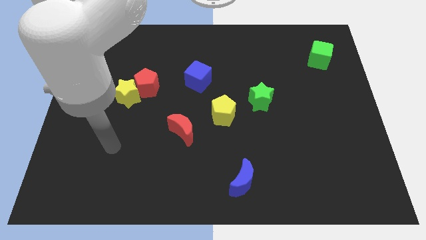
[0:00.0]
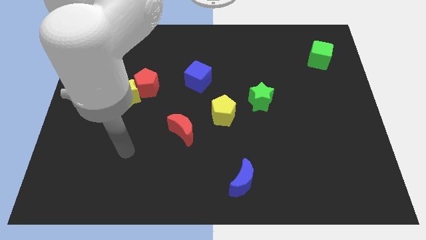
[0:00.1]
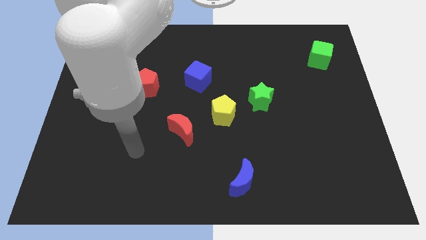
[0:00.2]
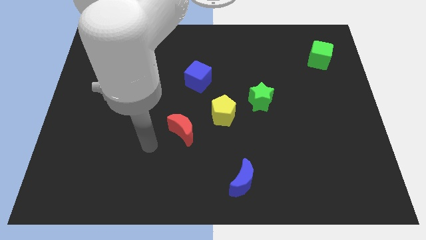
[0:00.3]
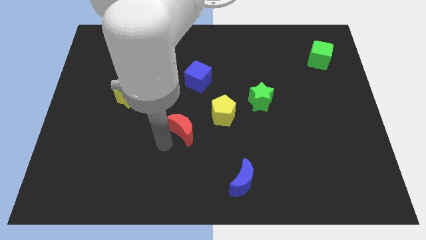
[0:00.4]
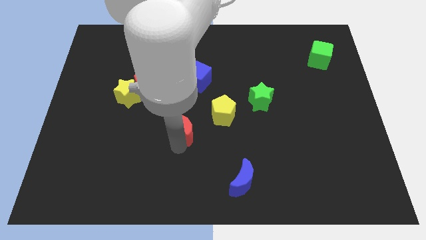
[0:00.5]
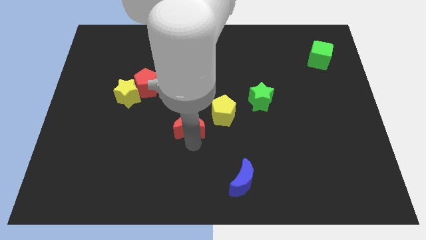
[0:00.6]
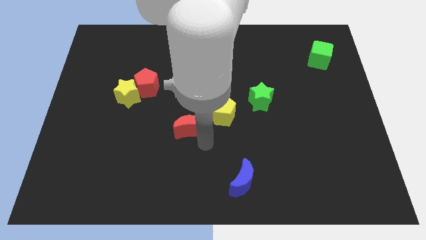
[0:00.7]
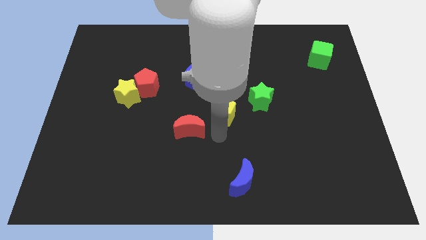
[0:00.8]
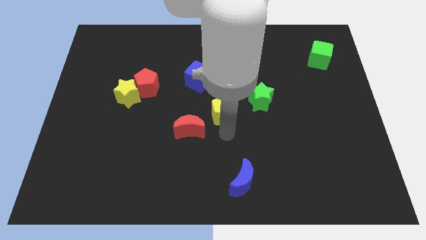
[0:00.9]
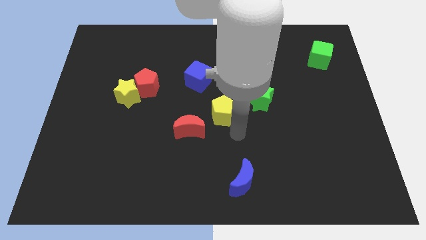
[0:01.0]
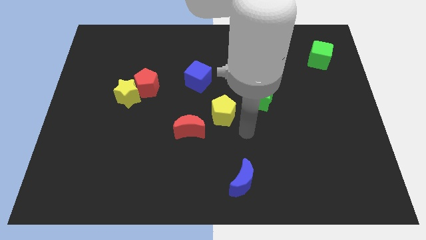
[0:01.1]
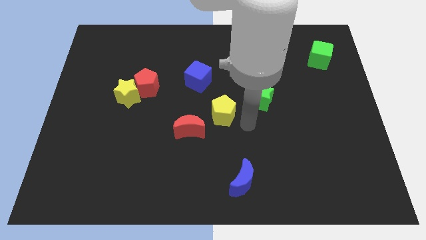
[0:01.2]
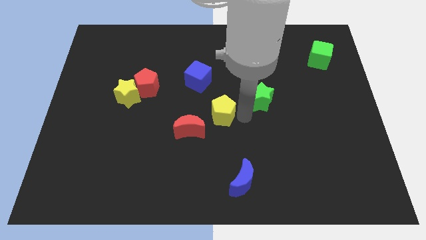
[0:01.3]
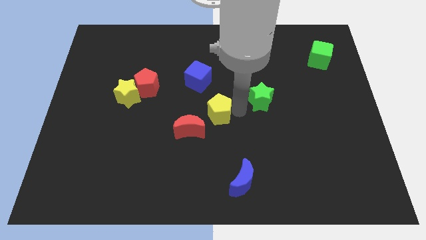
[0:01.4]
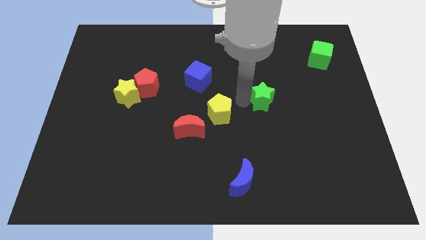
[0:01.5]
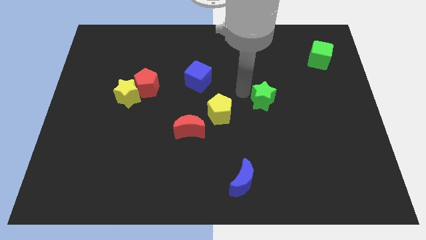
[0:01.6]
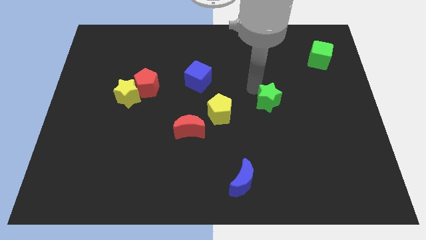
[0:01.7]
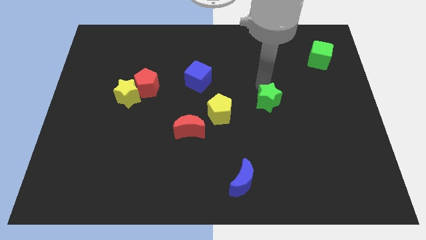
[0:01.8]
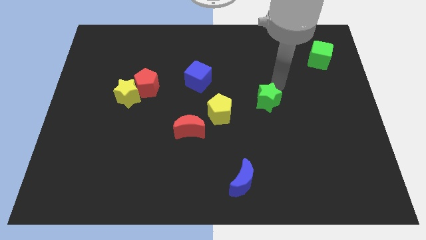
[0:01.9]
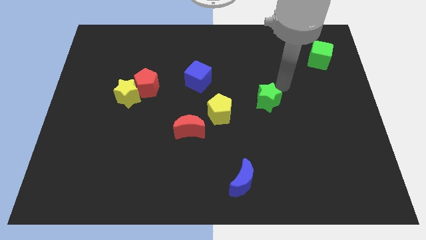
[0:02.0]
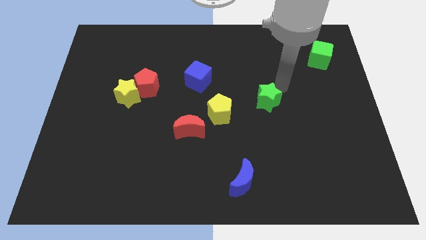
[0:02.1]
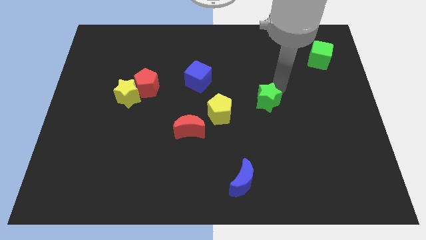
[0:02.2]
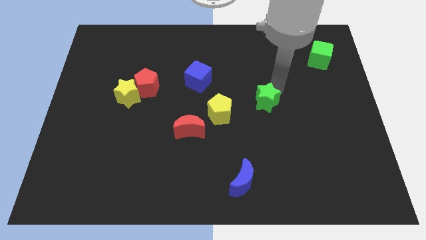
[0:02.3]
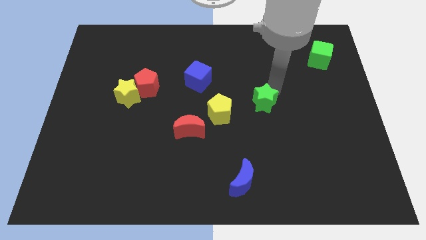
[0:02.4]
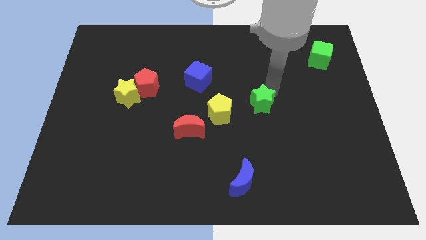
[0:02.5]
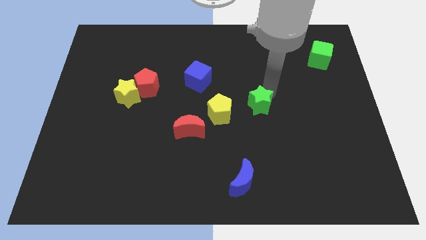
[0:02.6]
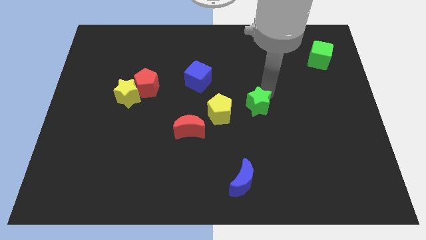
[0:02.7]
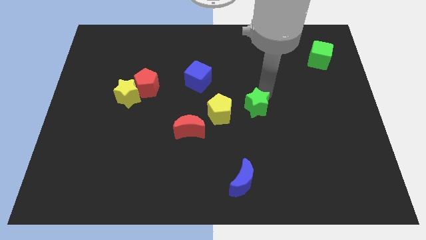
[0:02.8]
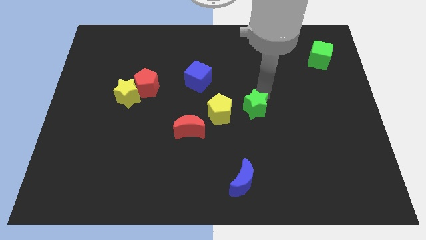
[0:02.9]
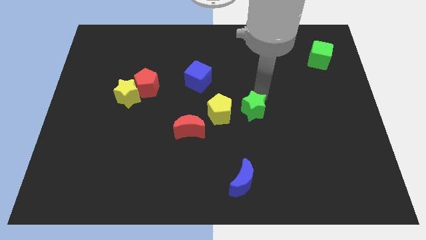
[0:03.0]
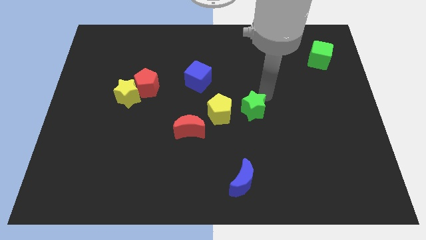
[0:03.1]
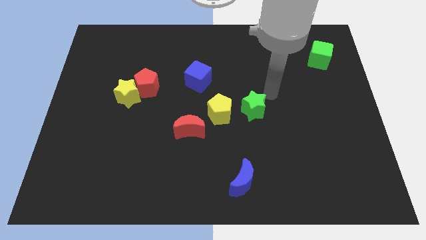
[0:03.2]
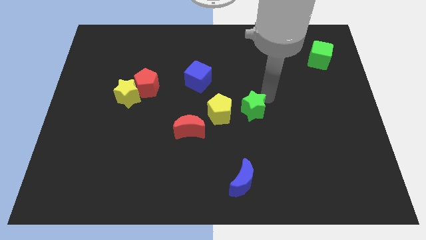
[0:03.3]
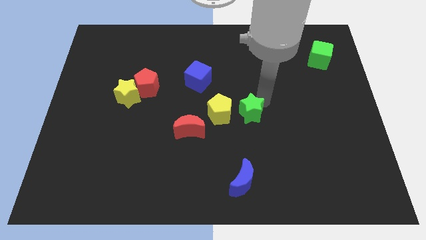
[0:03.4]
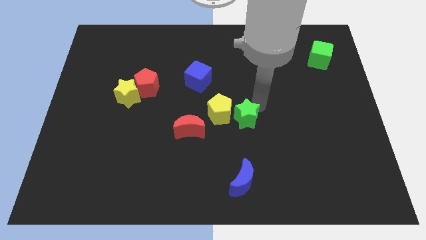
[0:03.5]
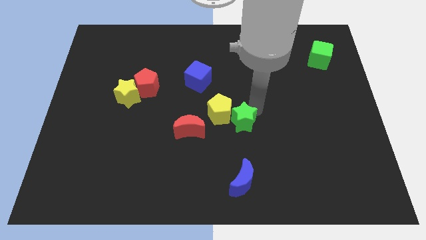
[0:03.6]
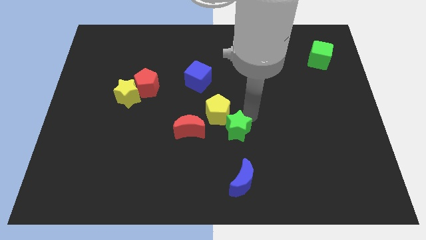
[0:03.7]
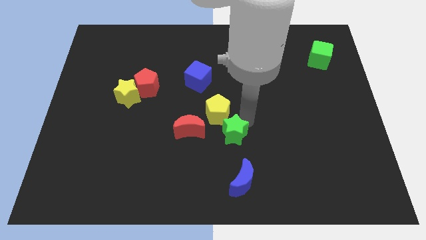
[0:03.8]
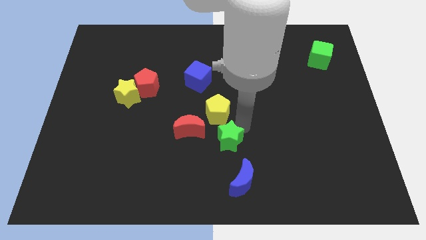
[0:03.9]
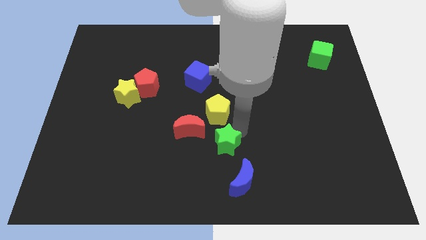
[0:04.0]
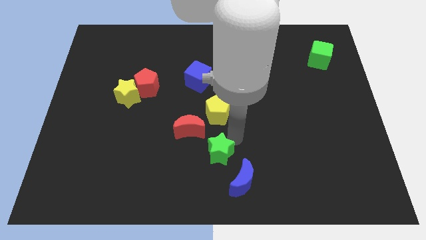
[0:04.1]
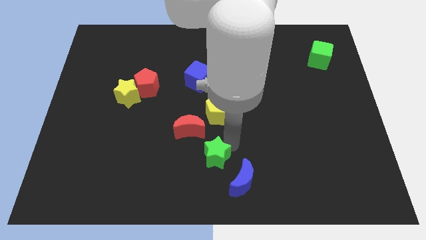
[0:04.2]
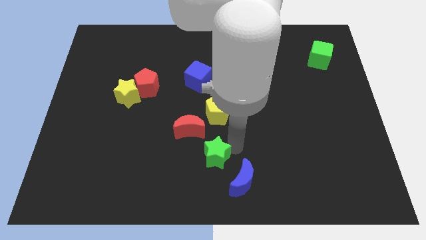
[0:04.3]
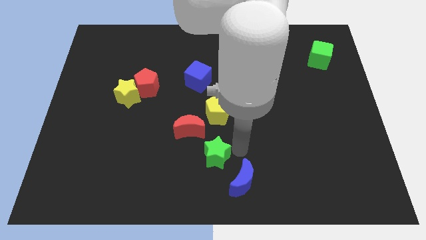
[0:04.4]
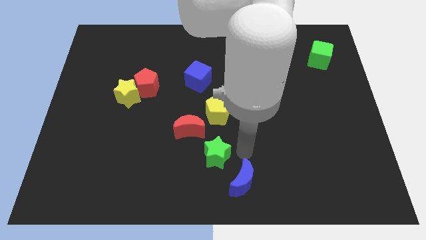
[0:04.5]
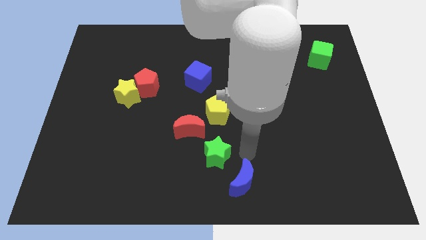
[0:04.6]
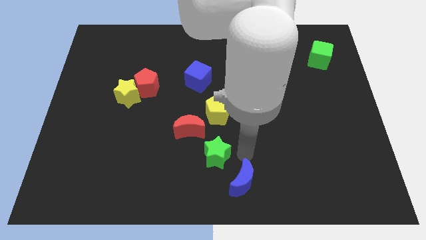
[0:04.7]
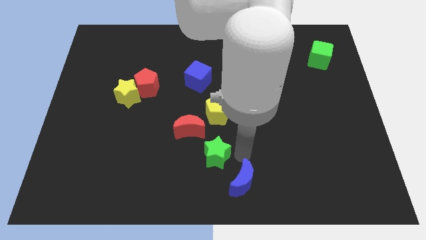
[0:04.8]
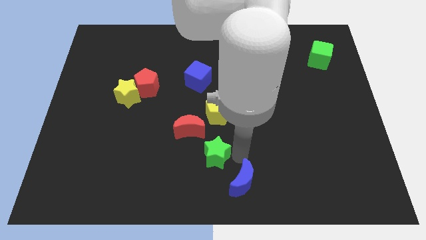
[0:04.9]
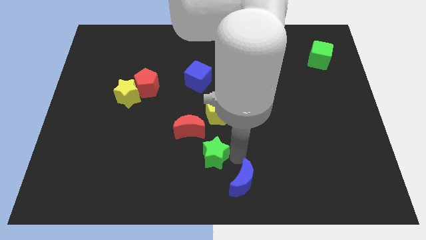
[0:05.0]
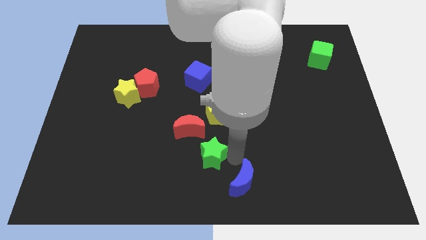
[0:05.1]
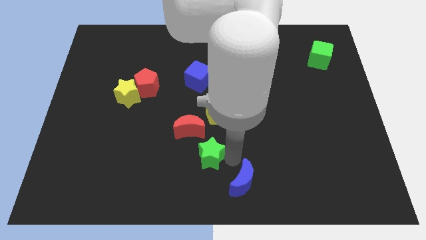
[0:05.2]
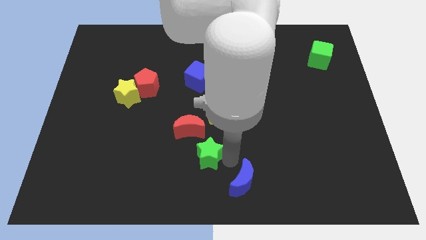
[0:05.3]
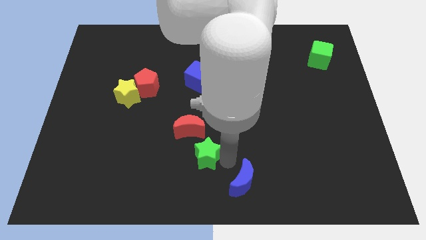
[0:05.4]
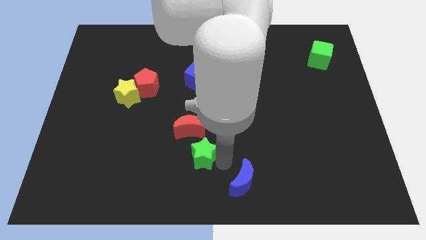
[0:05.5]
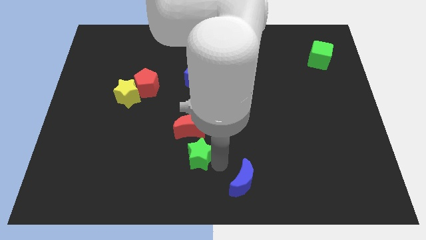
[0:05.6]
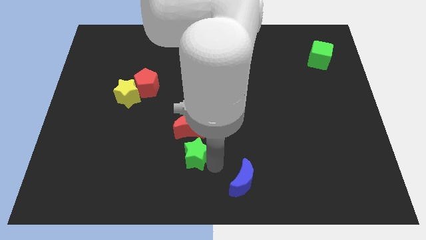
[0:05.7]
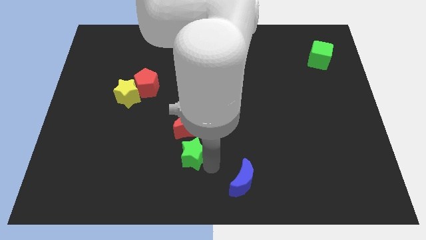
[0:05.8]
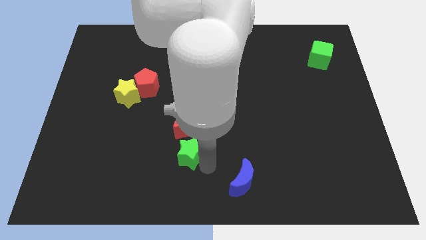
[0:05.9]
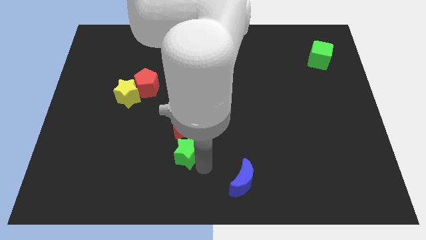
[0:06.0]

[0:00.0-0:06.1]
push the green star diagonally down and to the left of the red moon

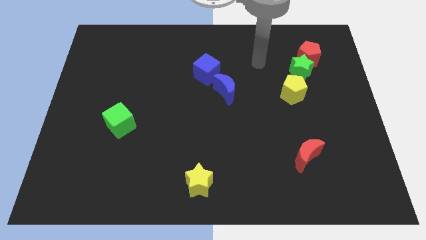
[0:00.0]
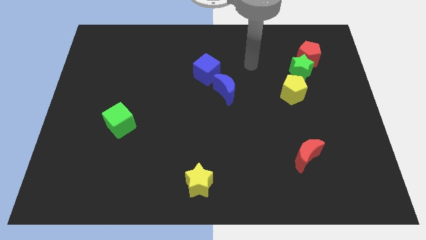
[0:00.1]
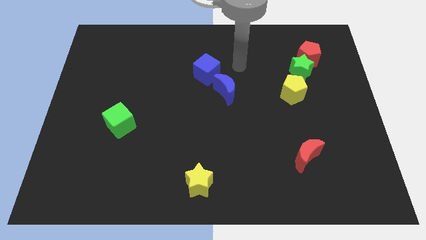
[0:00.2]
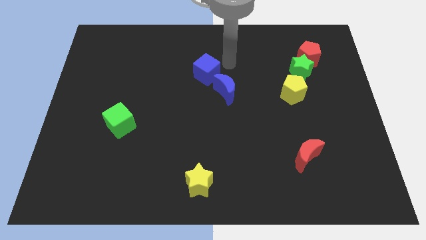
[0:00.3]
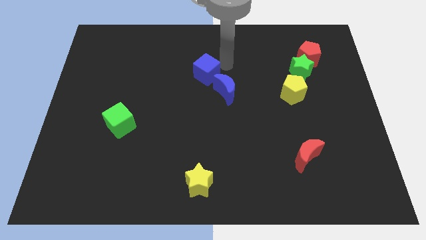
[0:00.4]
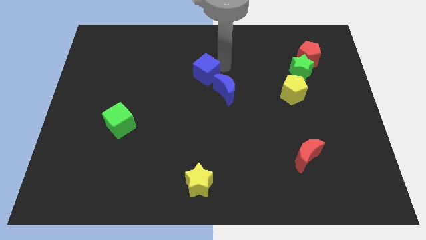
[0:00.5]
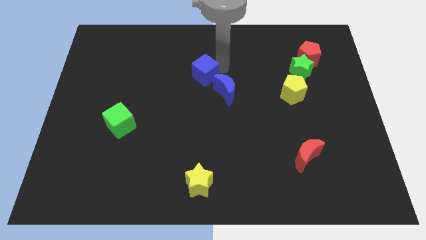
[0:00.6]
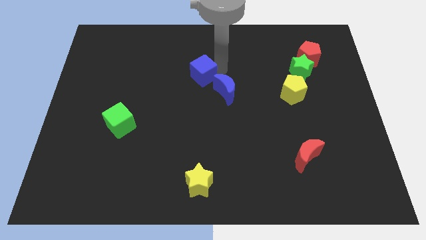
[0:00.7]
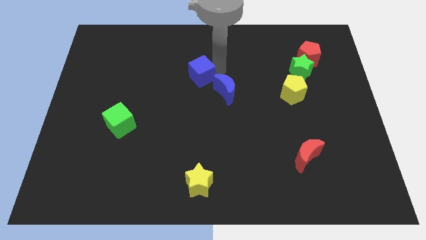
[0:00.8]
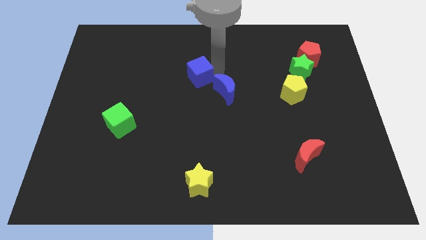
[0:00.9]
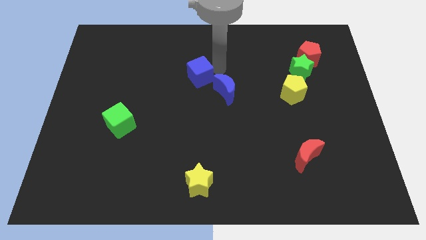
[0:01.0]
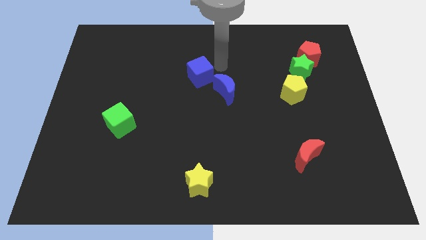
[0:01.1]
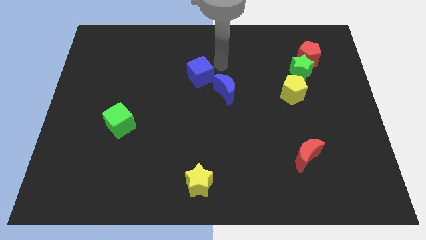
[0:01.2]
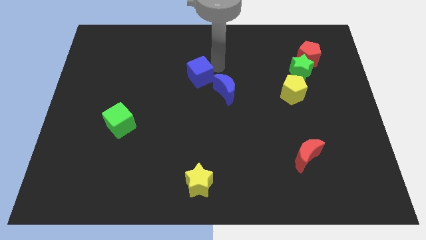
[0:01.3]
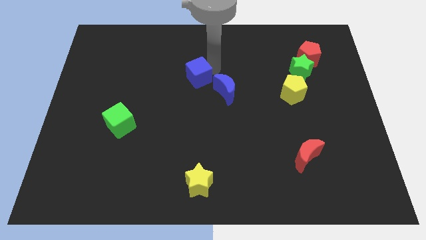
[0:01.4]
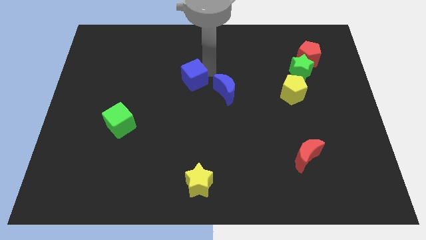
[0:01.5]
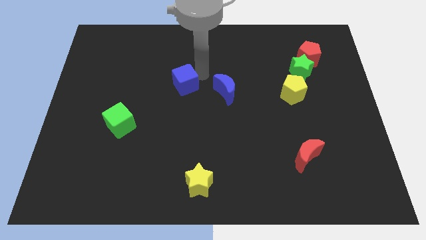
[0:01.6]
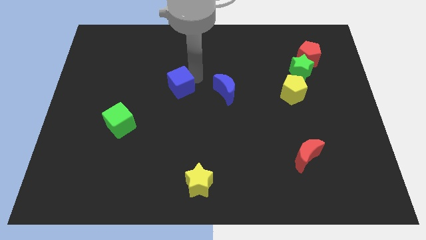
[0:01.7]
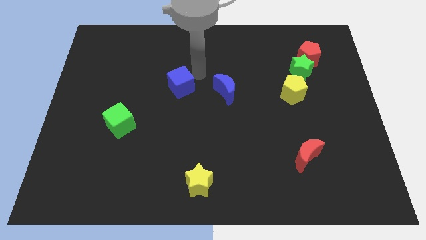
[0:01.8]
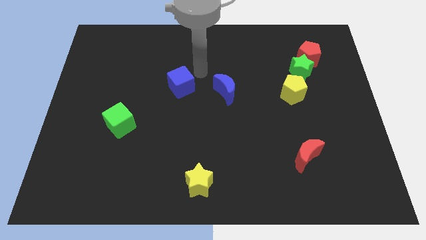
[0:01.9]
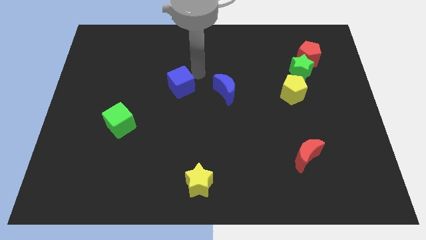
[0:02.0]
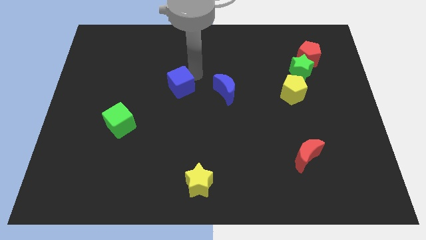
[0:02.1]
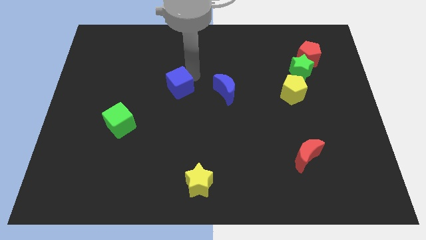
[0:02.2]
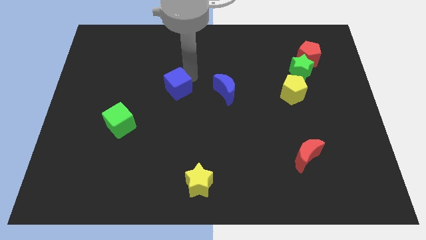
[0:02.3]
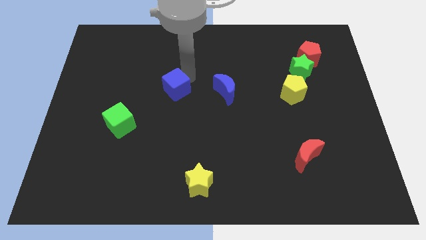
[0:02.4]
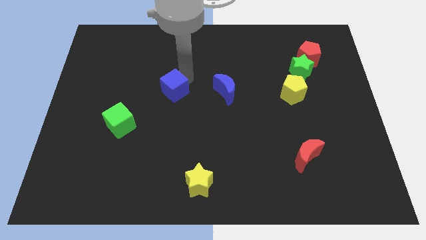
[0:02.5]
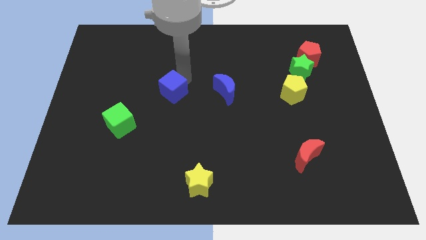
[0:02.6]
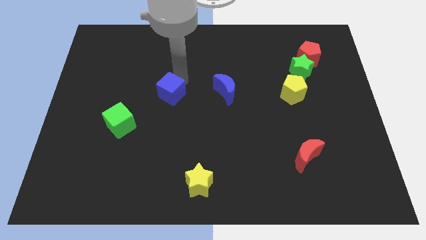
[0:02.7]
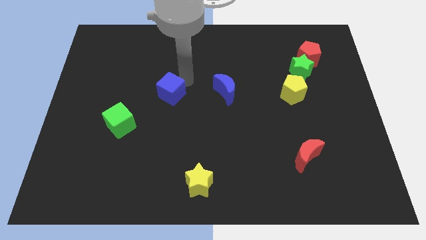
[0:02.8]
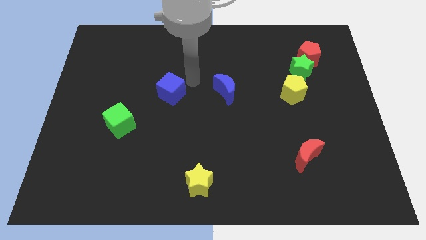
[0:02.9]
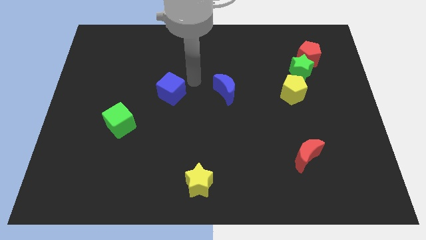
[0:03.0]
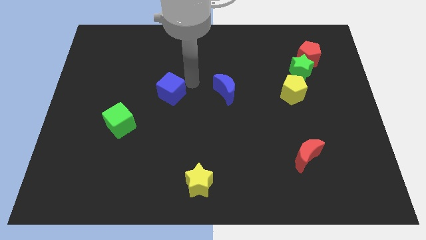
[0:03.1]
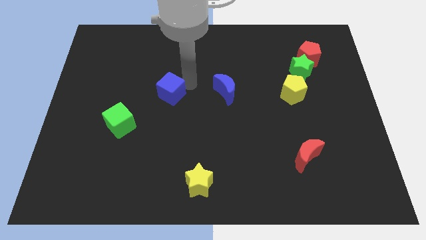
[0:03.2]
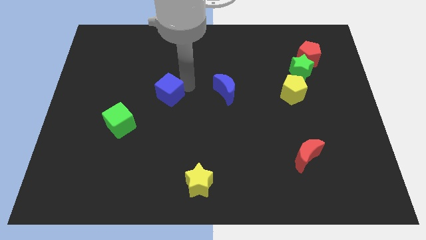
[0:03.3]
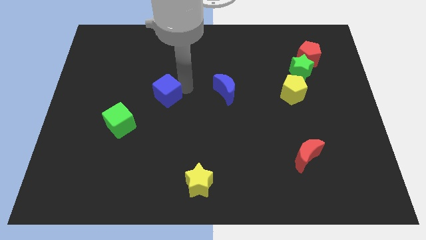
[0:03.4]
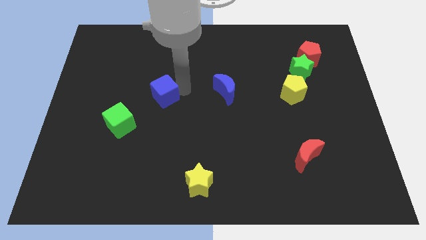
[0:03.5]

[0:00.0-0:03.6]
push the blue cube to the top right of the green cube
